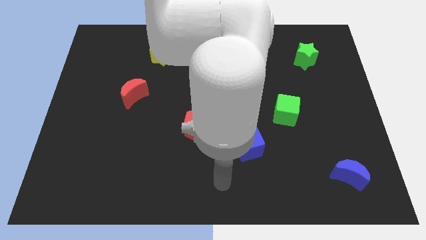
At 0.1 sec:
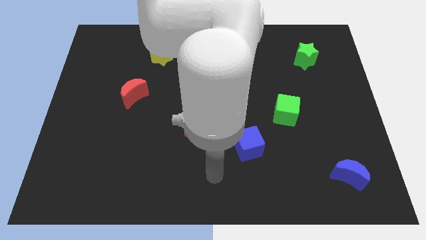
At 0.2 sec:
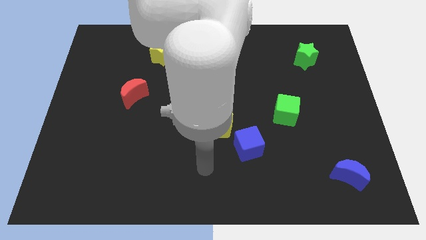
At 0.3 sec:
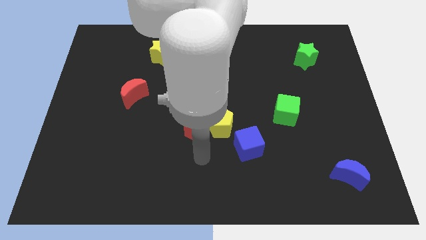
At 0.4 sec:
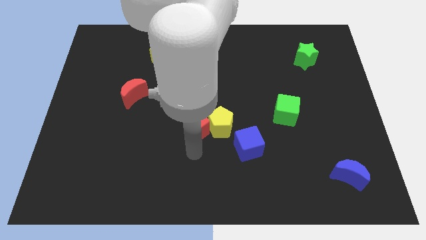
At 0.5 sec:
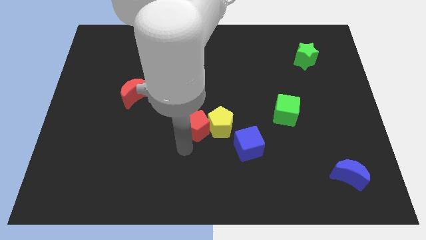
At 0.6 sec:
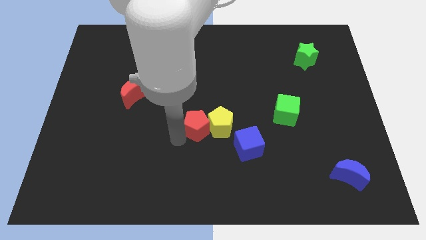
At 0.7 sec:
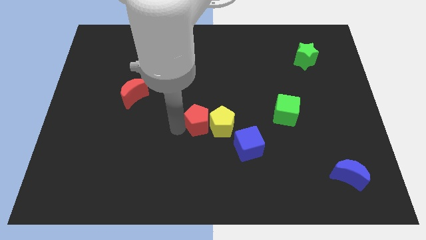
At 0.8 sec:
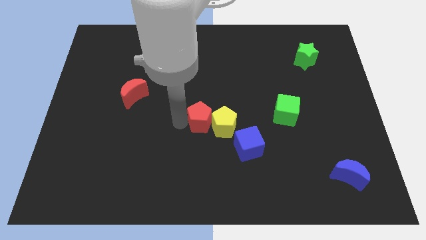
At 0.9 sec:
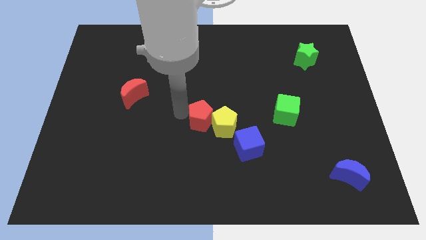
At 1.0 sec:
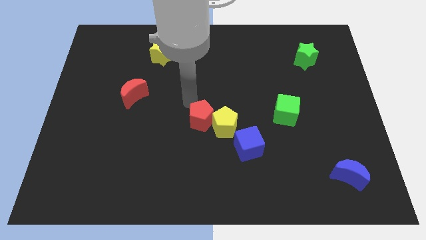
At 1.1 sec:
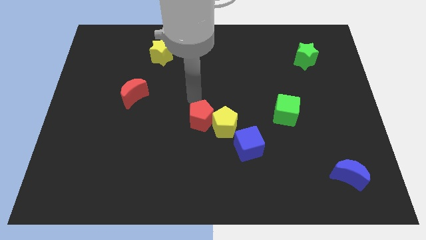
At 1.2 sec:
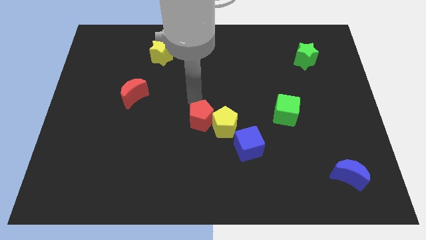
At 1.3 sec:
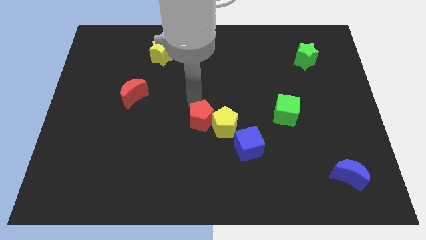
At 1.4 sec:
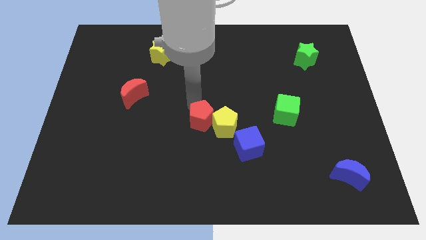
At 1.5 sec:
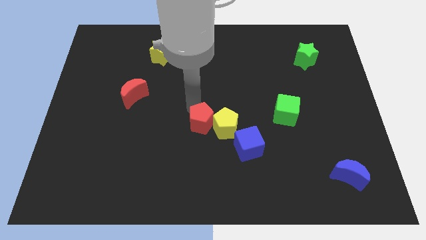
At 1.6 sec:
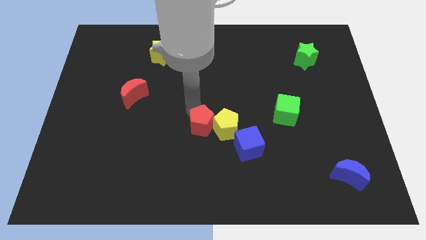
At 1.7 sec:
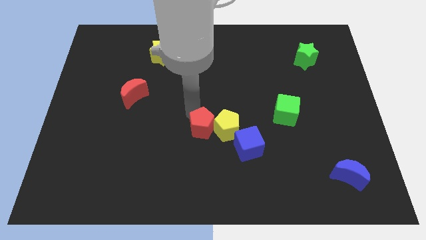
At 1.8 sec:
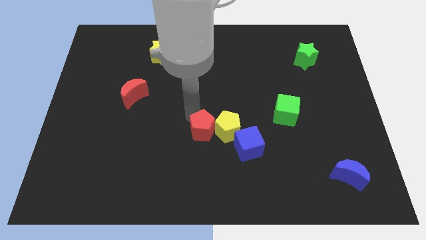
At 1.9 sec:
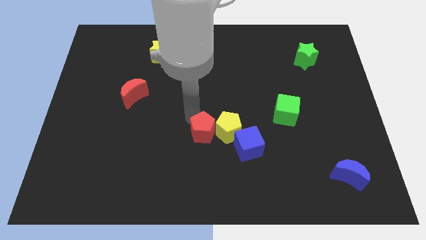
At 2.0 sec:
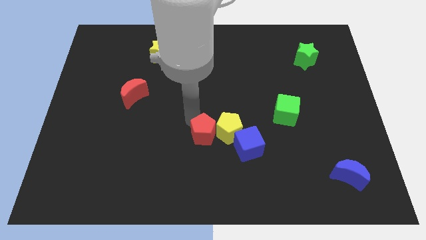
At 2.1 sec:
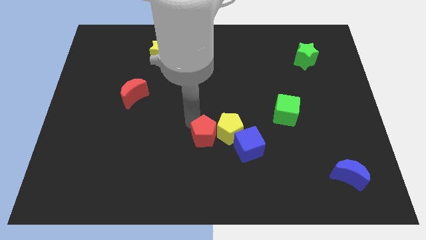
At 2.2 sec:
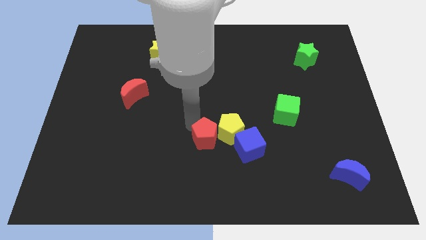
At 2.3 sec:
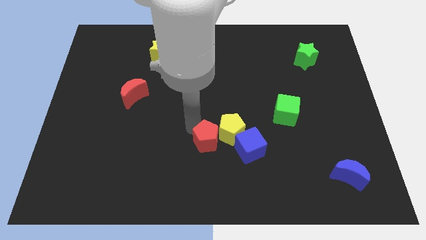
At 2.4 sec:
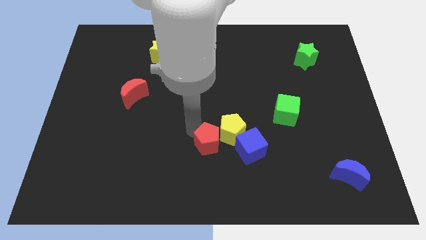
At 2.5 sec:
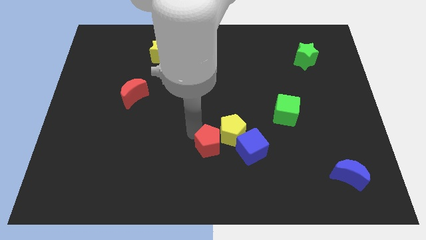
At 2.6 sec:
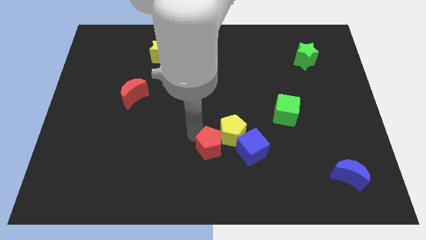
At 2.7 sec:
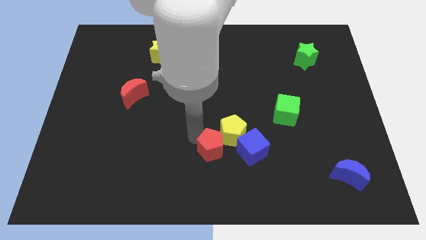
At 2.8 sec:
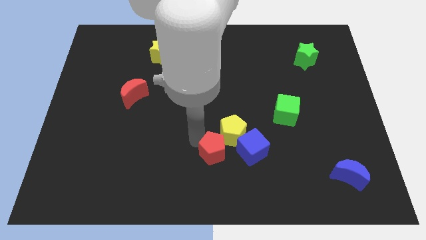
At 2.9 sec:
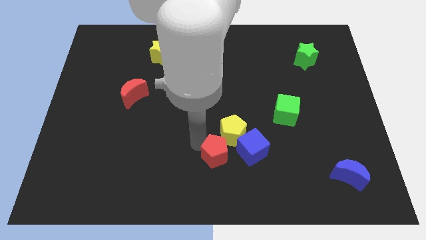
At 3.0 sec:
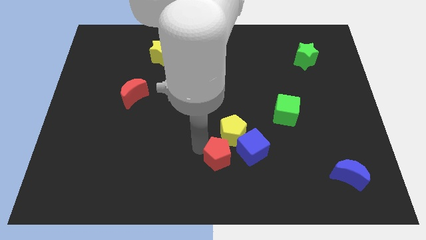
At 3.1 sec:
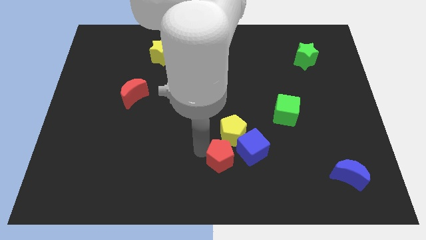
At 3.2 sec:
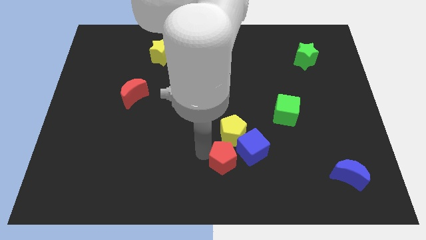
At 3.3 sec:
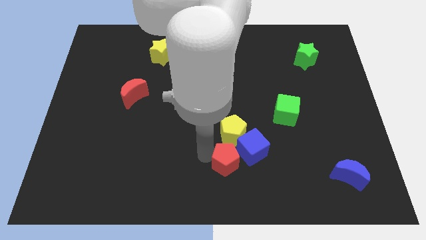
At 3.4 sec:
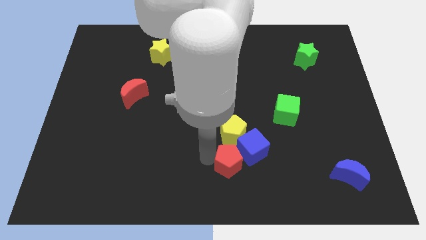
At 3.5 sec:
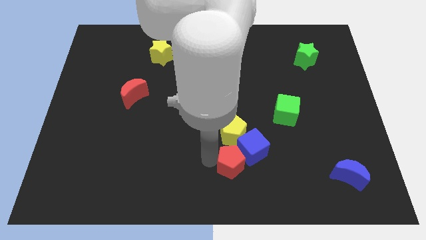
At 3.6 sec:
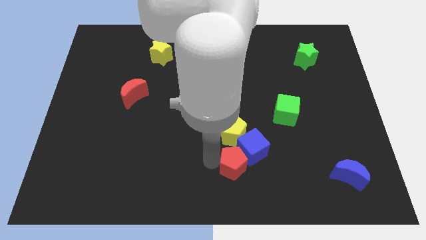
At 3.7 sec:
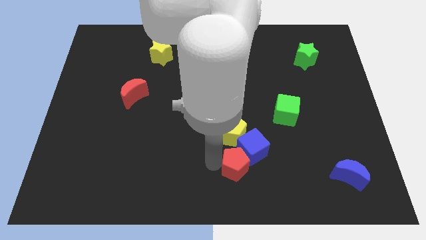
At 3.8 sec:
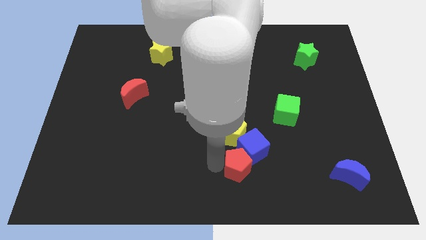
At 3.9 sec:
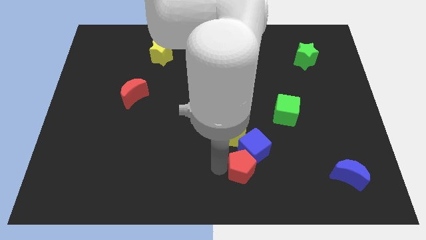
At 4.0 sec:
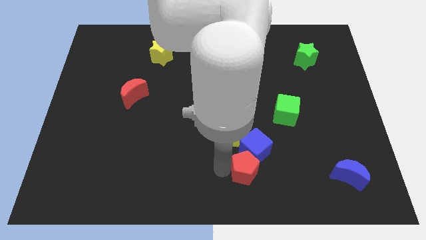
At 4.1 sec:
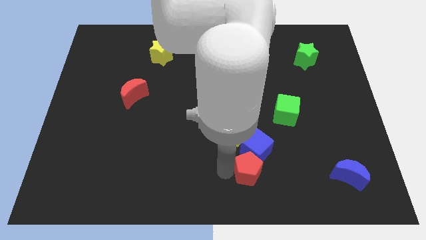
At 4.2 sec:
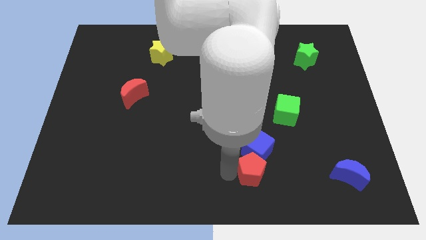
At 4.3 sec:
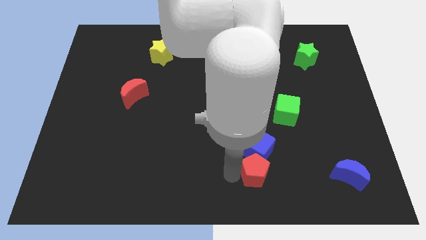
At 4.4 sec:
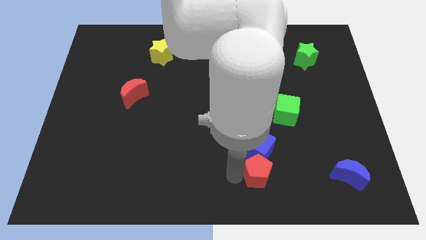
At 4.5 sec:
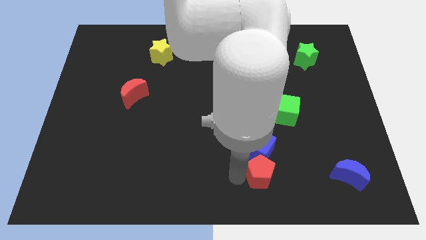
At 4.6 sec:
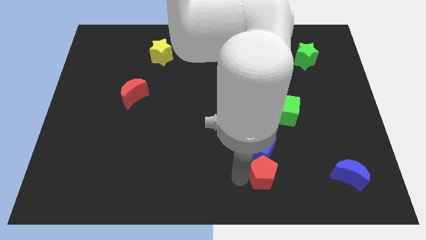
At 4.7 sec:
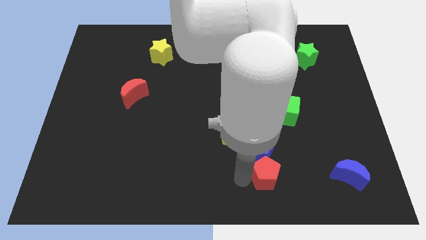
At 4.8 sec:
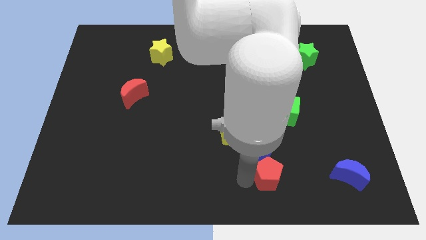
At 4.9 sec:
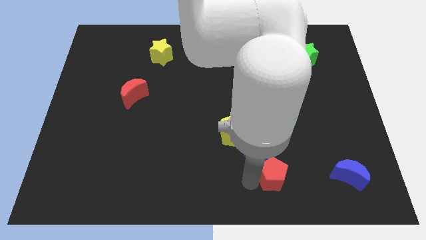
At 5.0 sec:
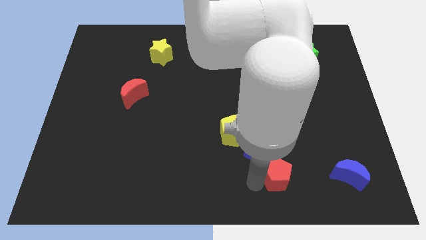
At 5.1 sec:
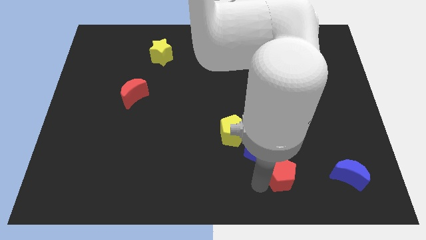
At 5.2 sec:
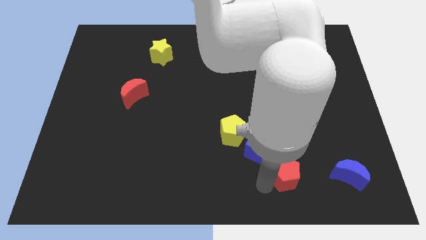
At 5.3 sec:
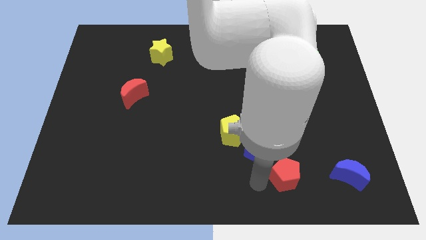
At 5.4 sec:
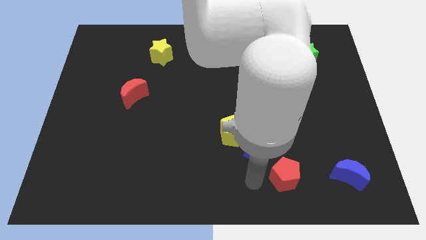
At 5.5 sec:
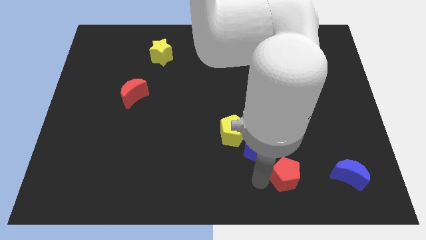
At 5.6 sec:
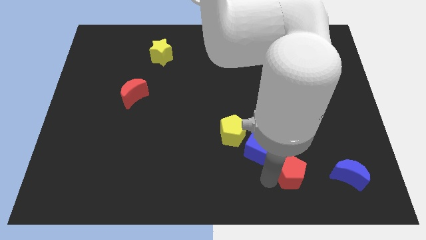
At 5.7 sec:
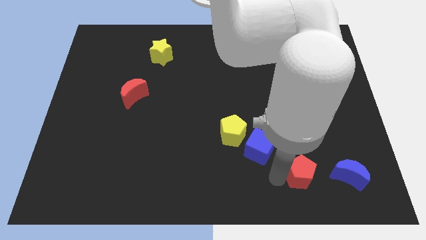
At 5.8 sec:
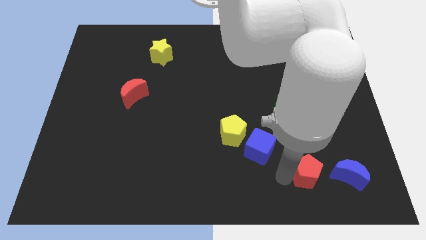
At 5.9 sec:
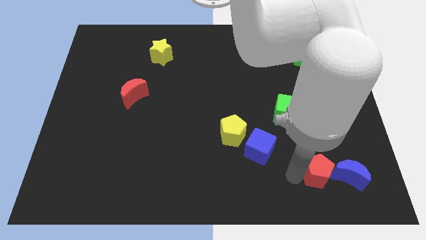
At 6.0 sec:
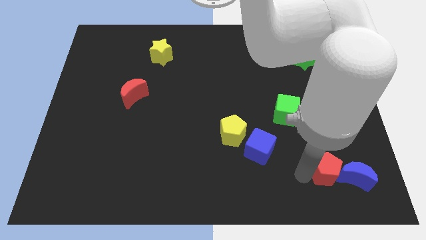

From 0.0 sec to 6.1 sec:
push the red pentagon close to the blue moon

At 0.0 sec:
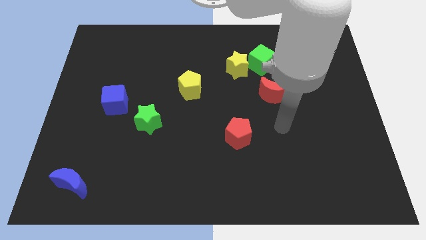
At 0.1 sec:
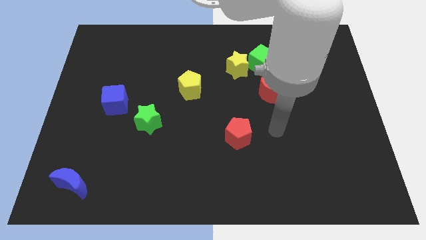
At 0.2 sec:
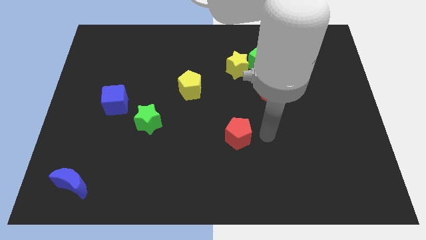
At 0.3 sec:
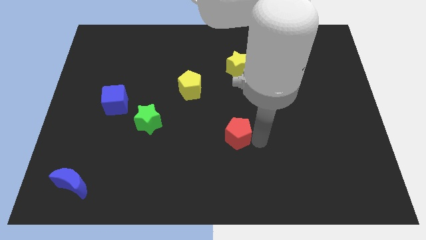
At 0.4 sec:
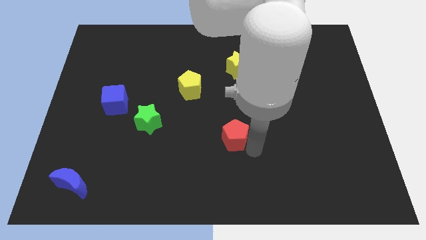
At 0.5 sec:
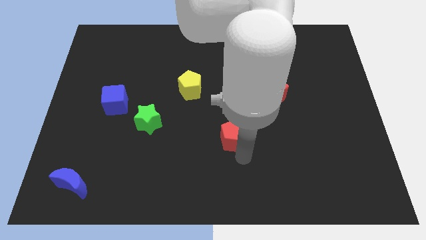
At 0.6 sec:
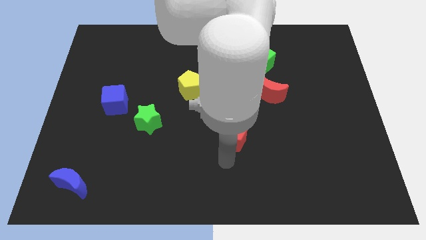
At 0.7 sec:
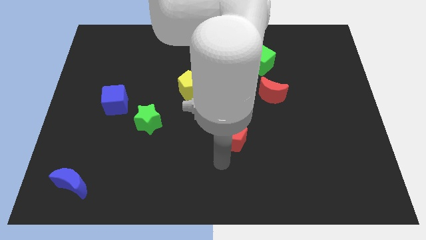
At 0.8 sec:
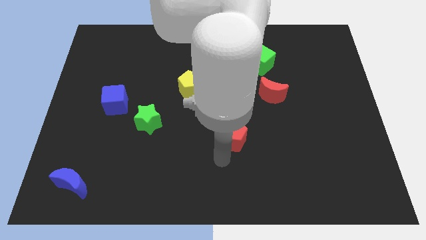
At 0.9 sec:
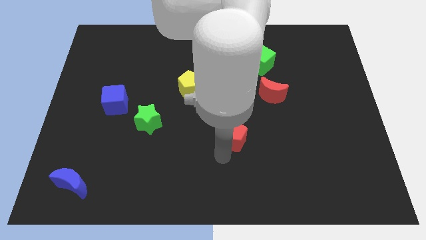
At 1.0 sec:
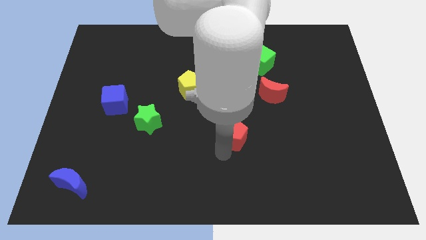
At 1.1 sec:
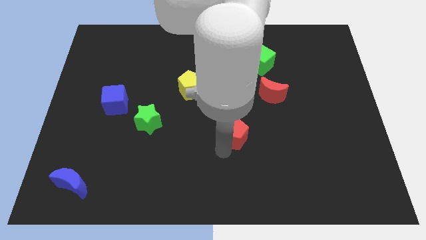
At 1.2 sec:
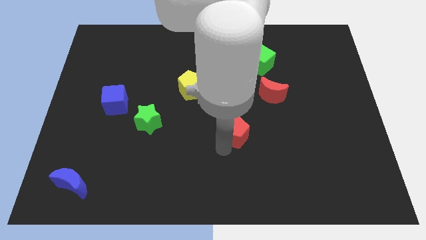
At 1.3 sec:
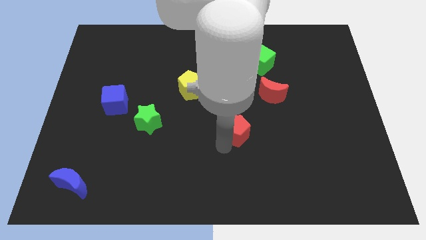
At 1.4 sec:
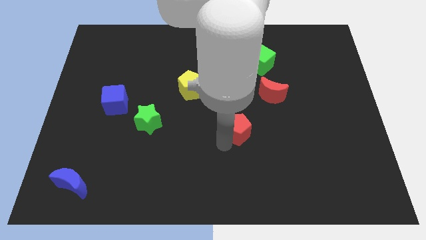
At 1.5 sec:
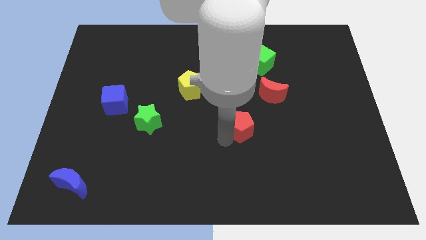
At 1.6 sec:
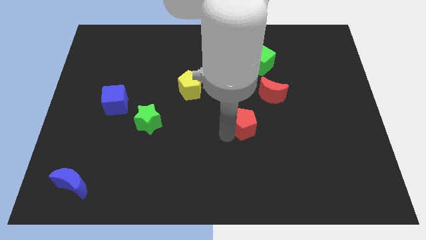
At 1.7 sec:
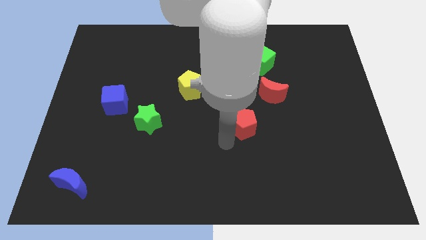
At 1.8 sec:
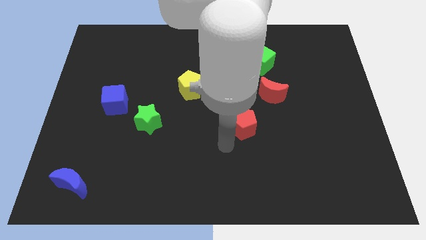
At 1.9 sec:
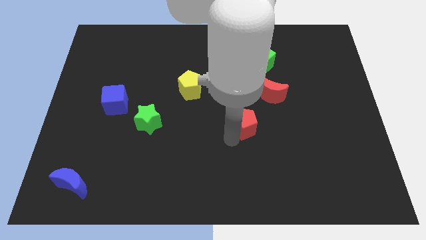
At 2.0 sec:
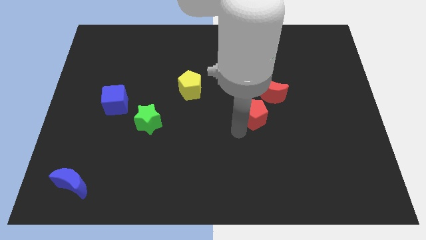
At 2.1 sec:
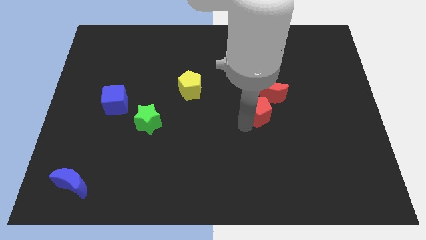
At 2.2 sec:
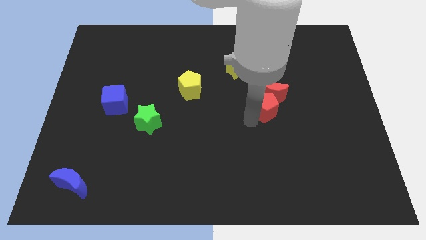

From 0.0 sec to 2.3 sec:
move the red pentagon close to the red moon
